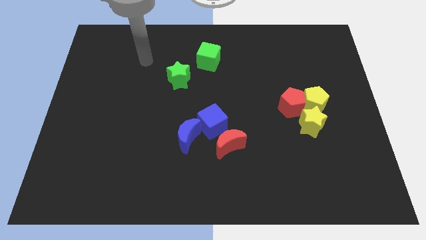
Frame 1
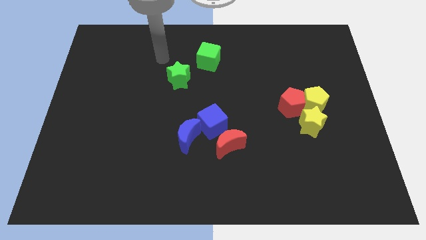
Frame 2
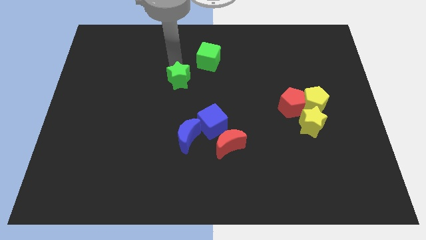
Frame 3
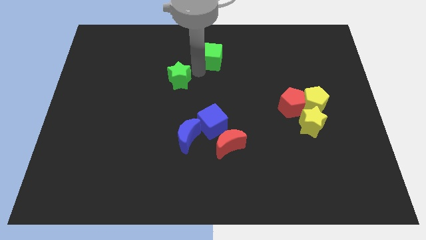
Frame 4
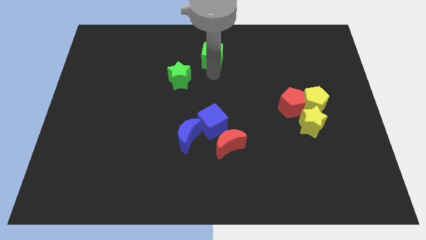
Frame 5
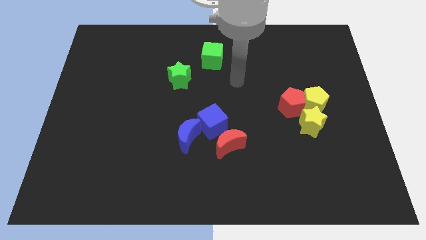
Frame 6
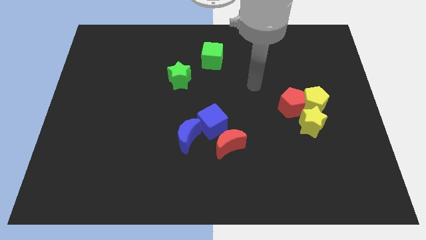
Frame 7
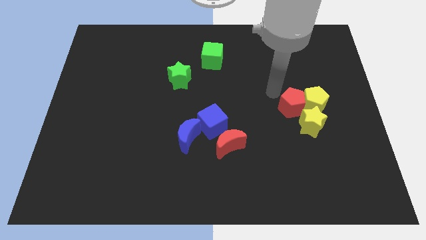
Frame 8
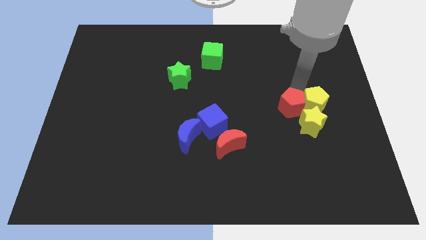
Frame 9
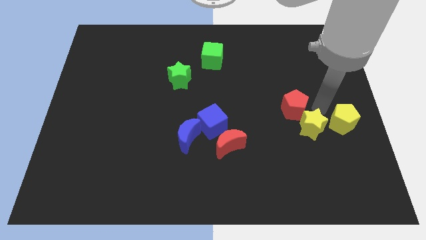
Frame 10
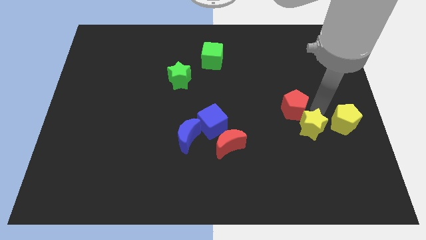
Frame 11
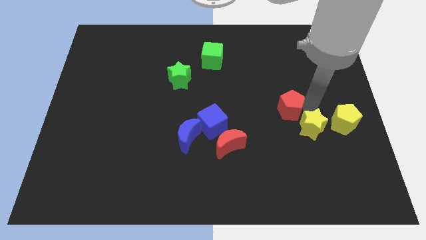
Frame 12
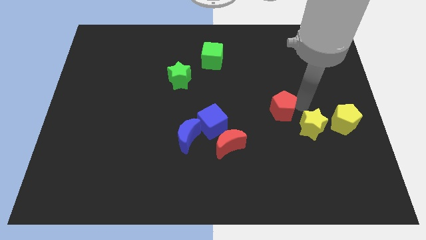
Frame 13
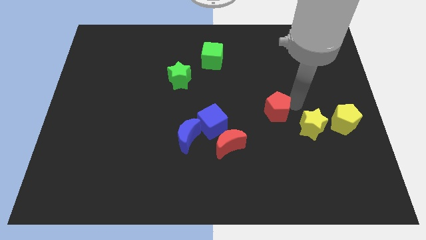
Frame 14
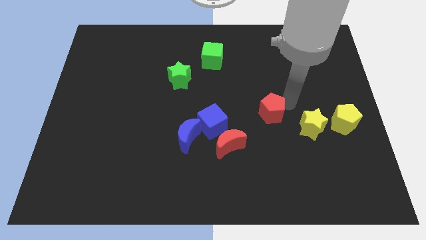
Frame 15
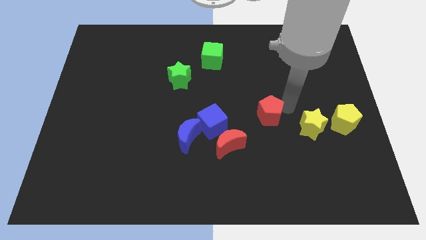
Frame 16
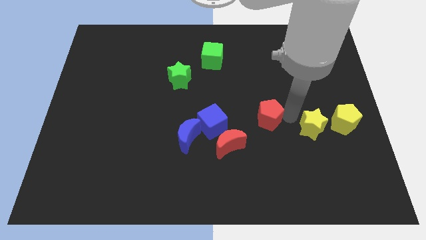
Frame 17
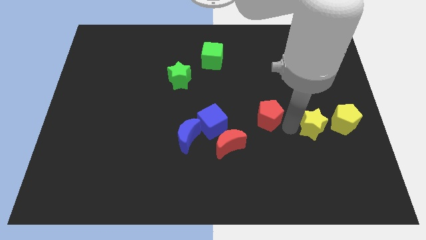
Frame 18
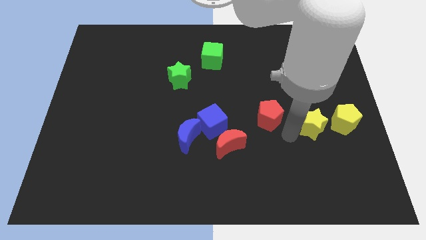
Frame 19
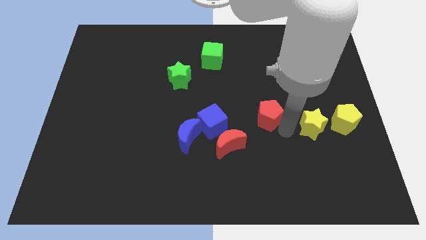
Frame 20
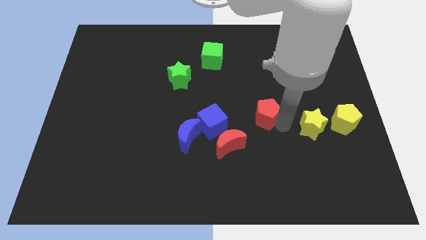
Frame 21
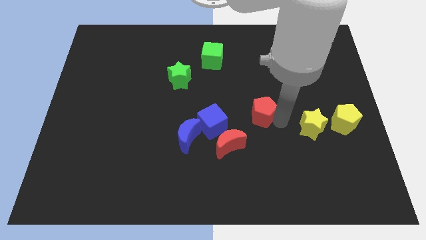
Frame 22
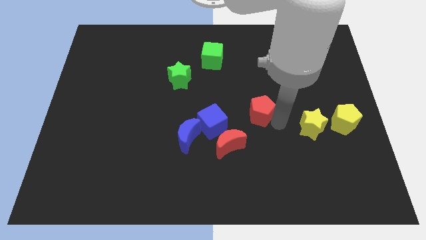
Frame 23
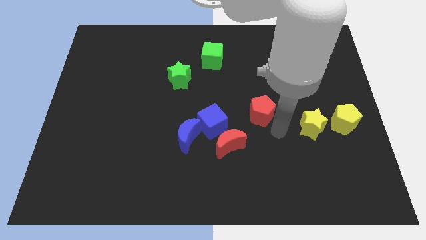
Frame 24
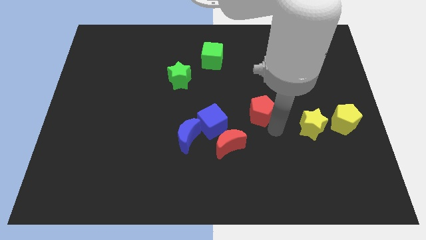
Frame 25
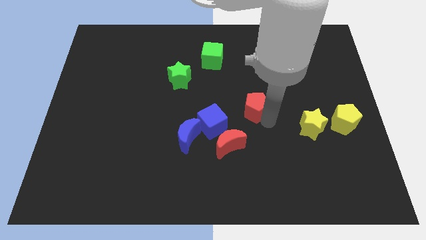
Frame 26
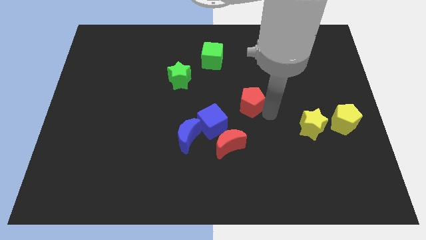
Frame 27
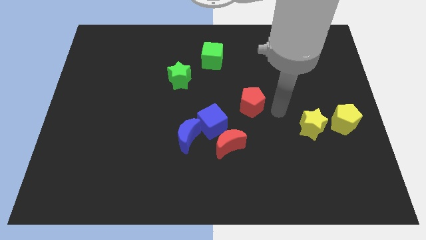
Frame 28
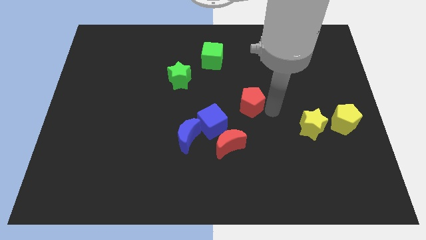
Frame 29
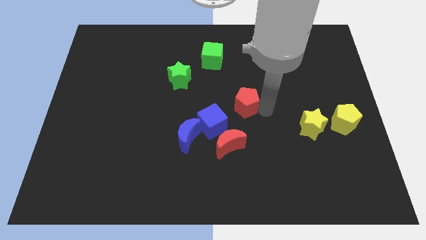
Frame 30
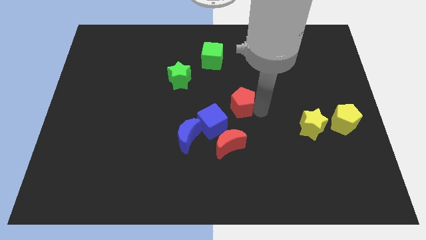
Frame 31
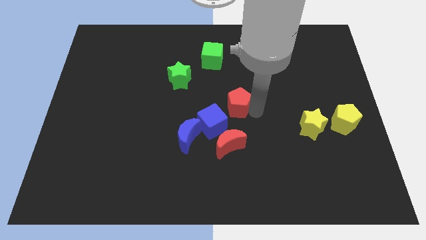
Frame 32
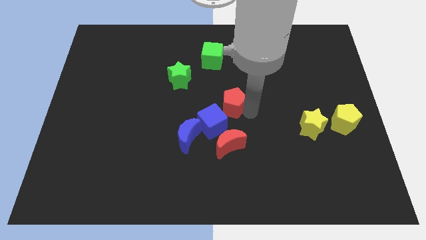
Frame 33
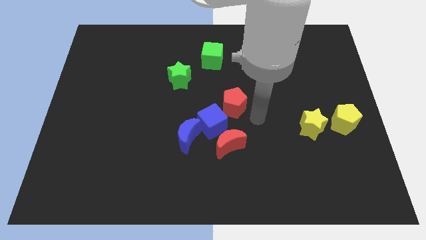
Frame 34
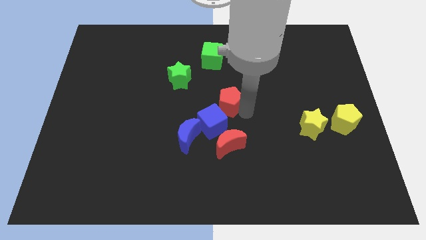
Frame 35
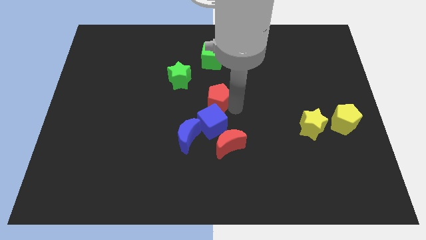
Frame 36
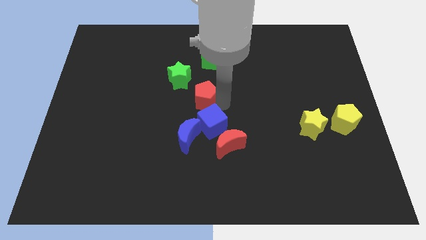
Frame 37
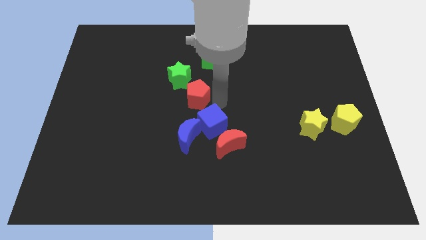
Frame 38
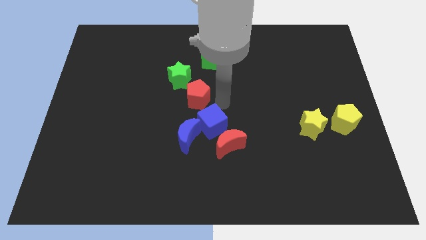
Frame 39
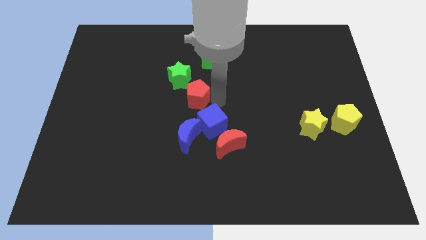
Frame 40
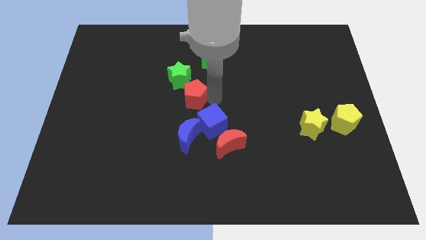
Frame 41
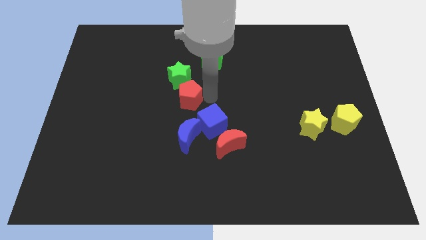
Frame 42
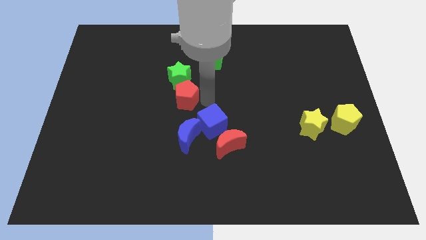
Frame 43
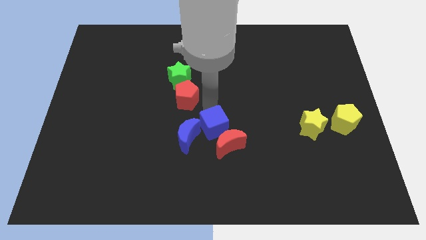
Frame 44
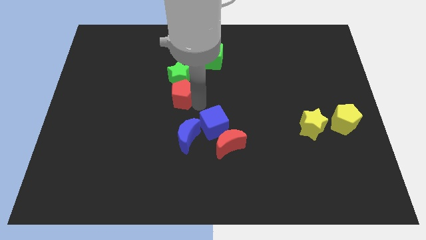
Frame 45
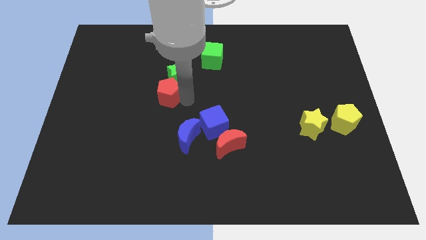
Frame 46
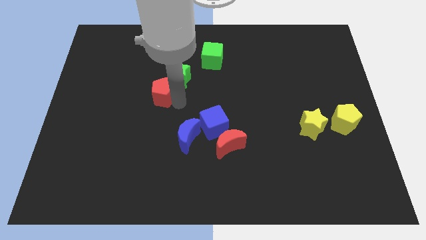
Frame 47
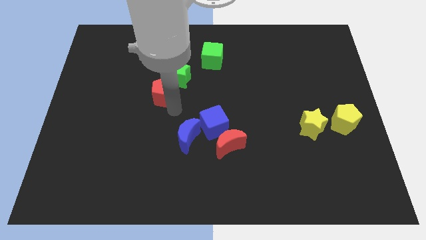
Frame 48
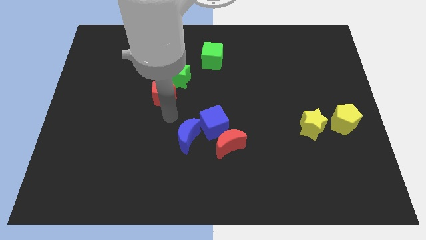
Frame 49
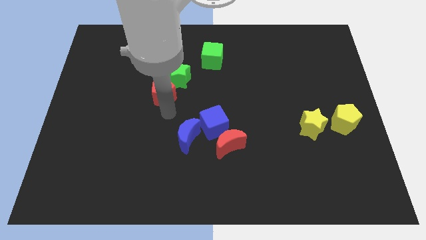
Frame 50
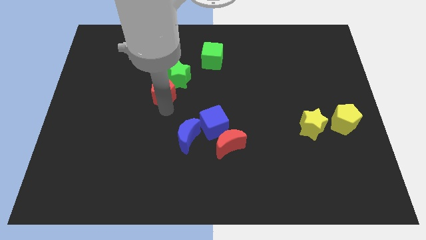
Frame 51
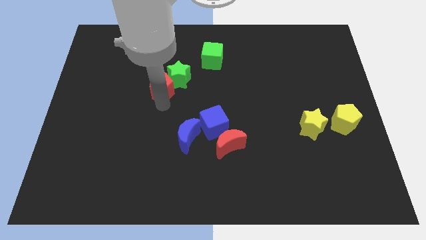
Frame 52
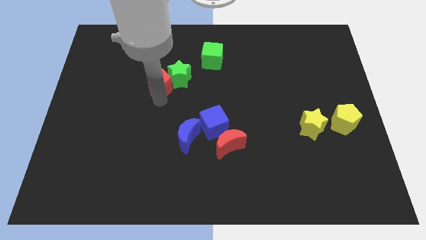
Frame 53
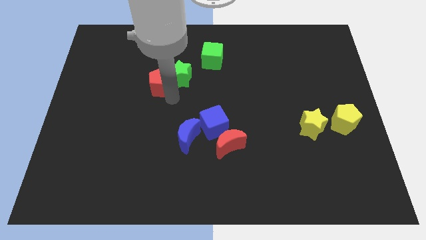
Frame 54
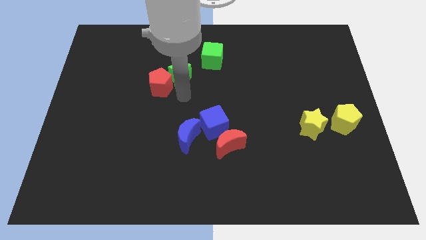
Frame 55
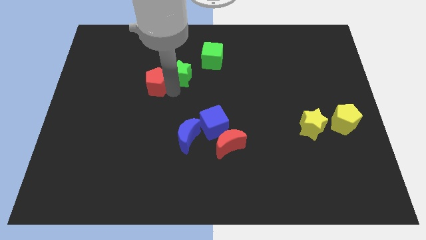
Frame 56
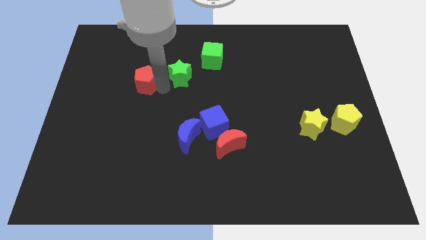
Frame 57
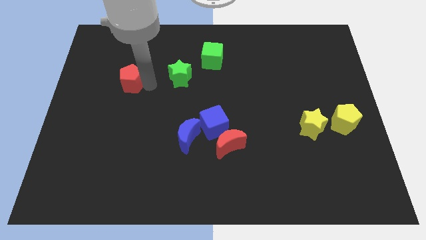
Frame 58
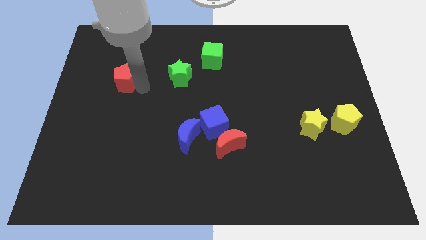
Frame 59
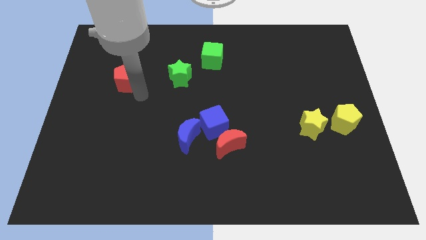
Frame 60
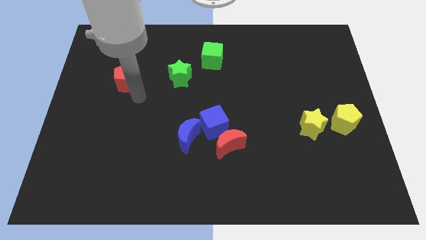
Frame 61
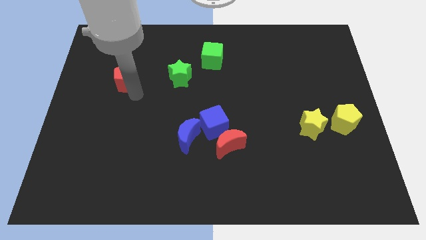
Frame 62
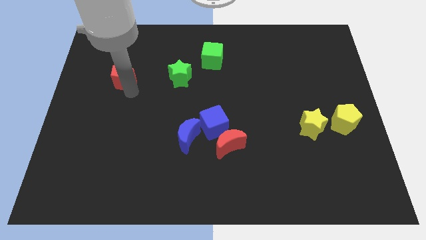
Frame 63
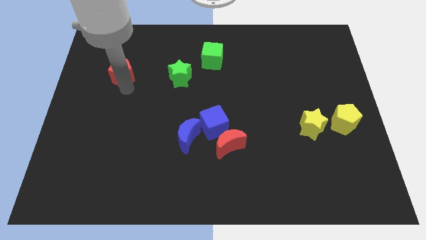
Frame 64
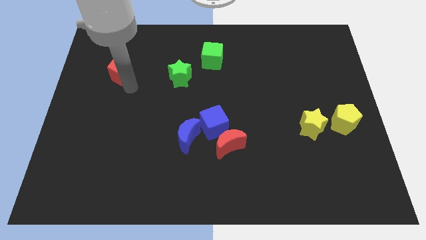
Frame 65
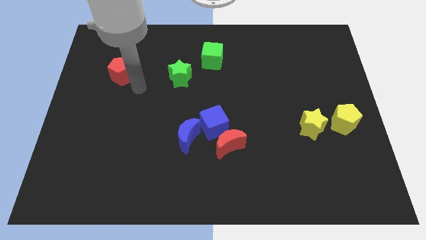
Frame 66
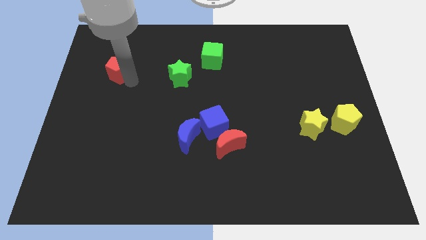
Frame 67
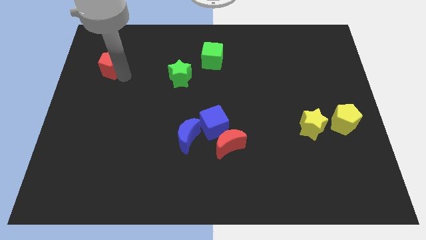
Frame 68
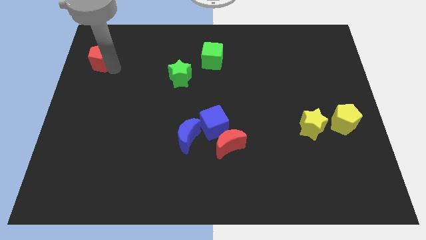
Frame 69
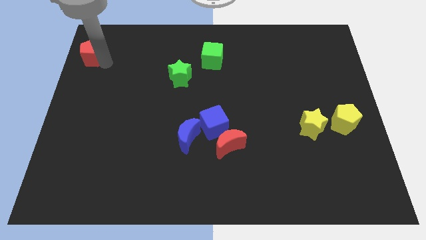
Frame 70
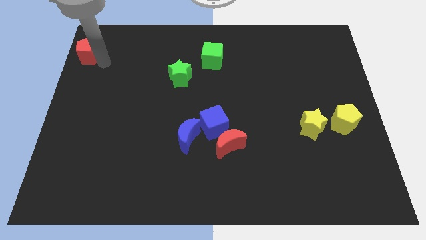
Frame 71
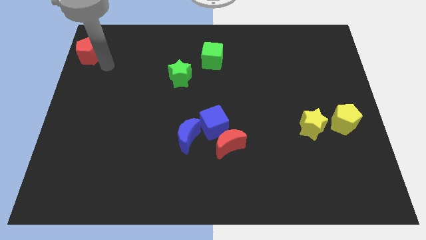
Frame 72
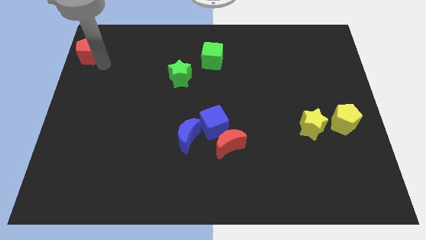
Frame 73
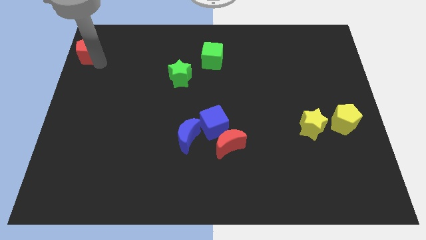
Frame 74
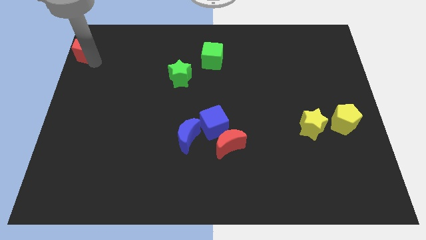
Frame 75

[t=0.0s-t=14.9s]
move the red pentagon to the top left
